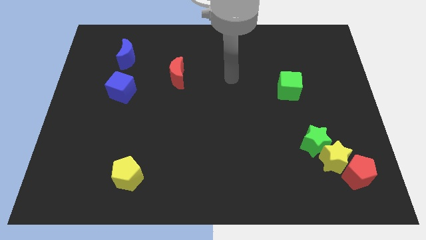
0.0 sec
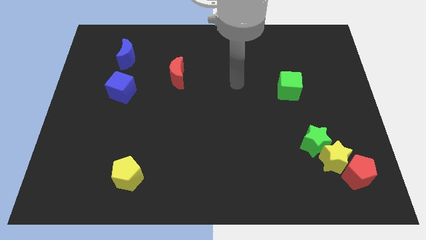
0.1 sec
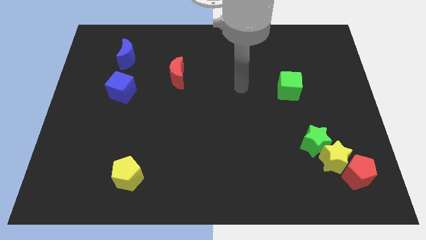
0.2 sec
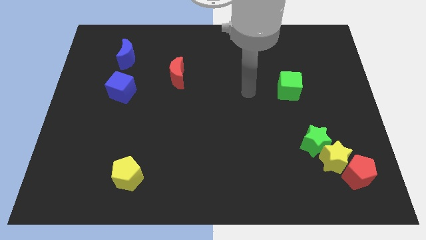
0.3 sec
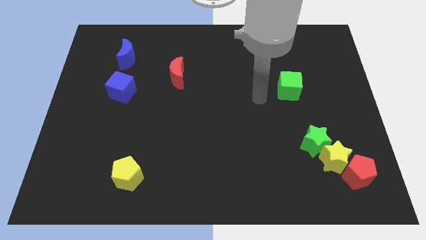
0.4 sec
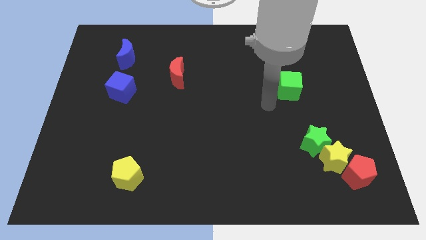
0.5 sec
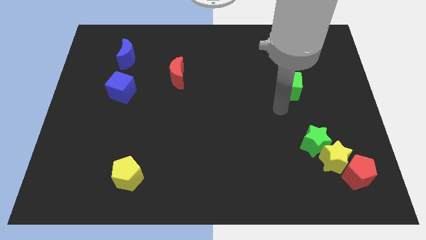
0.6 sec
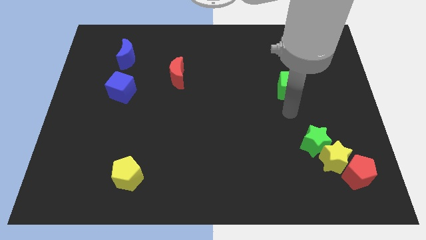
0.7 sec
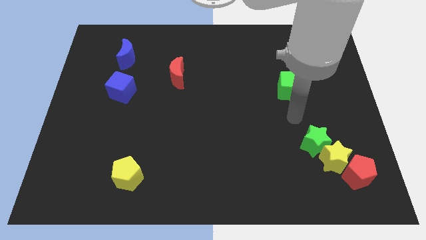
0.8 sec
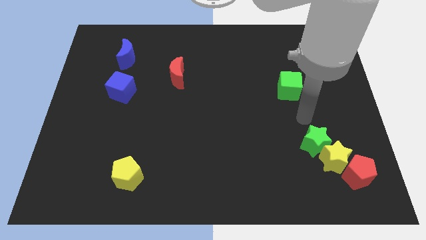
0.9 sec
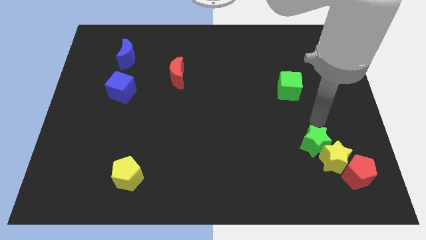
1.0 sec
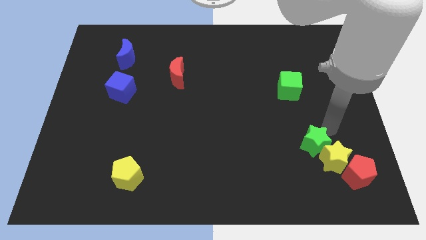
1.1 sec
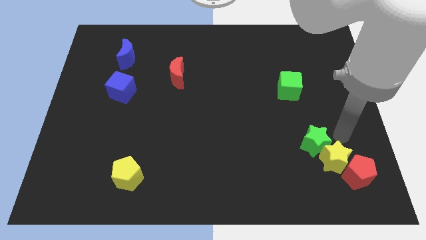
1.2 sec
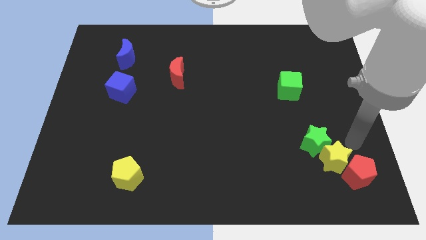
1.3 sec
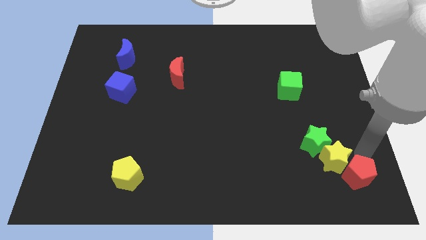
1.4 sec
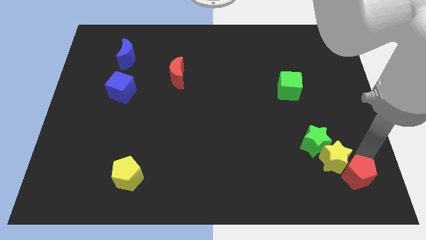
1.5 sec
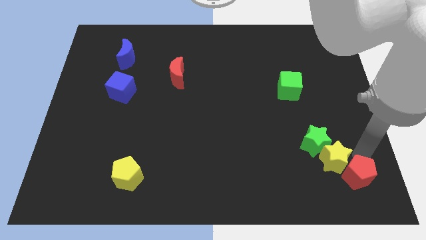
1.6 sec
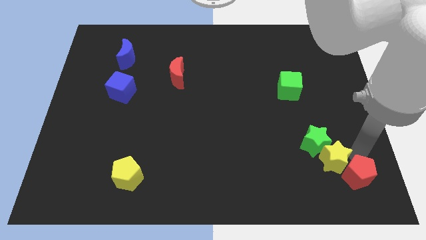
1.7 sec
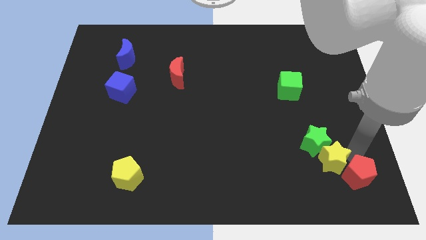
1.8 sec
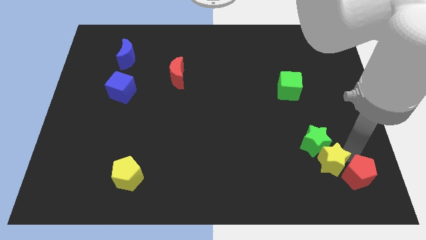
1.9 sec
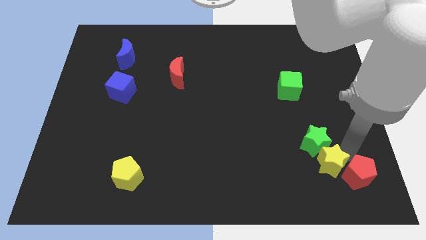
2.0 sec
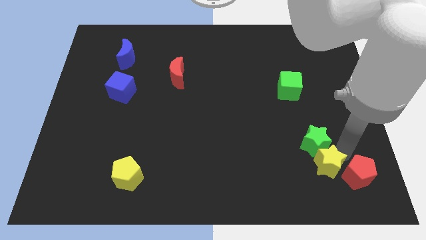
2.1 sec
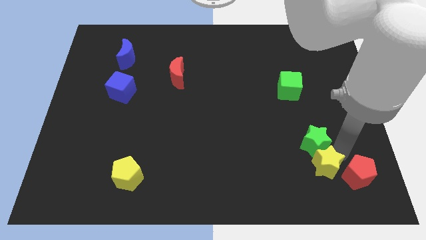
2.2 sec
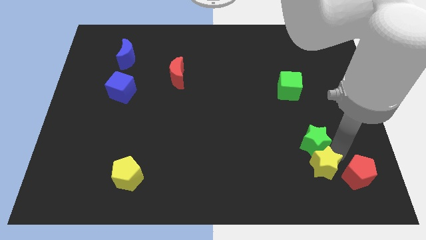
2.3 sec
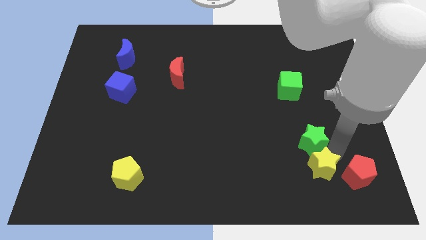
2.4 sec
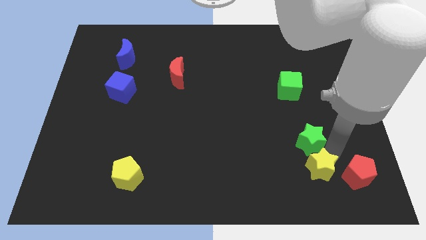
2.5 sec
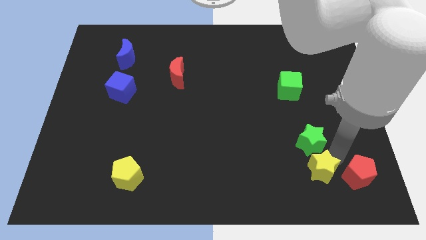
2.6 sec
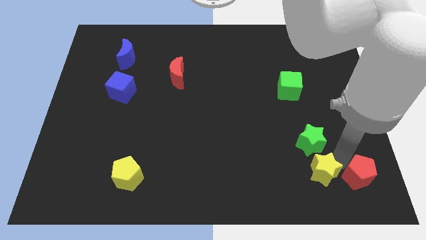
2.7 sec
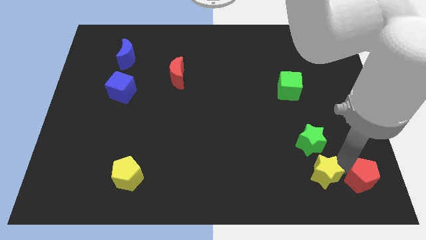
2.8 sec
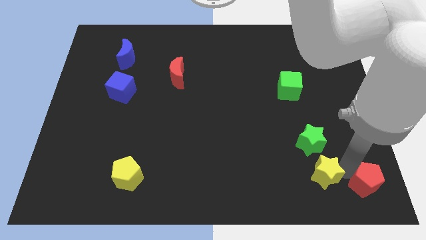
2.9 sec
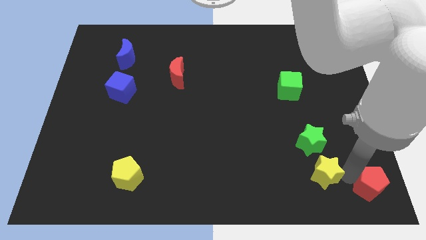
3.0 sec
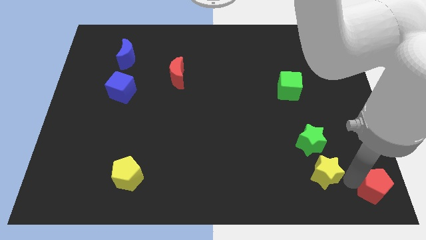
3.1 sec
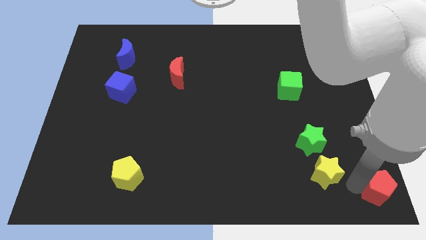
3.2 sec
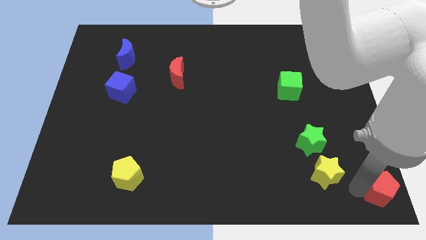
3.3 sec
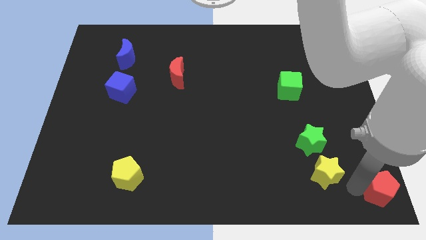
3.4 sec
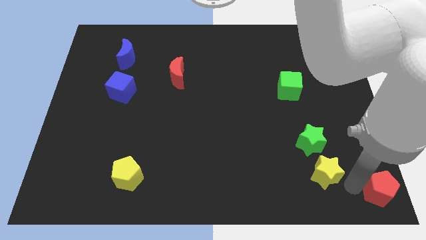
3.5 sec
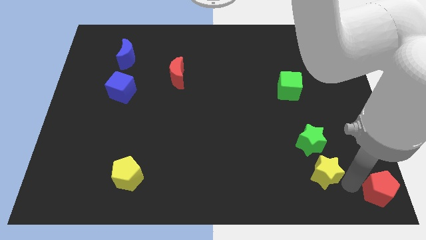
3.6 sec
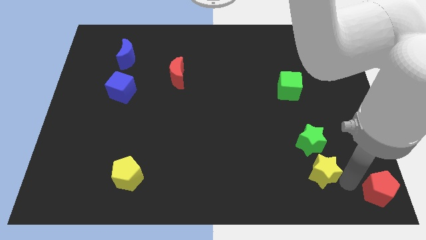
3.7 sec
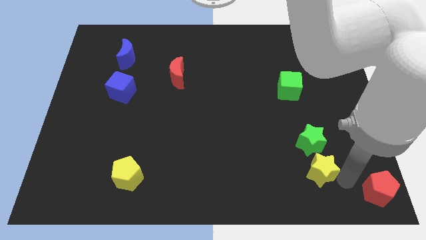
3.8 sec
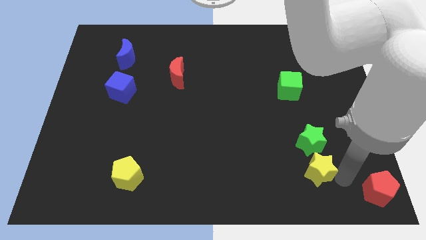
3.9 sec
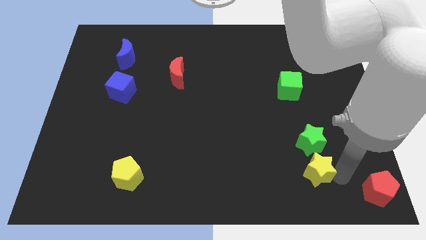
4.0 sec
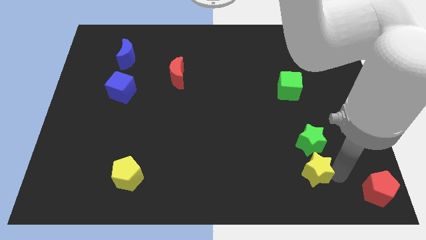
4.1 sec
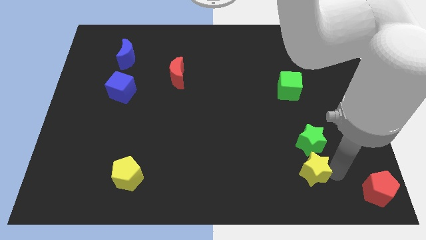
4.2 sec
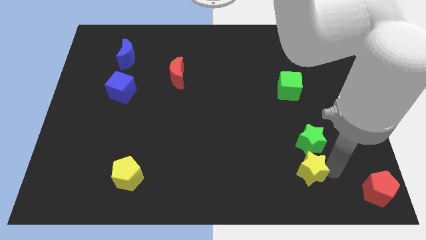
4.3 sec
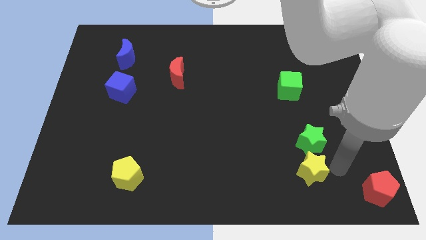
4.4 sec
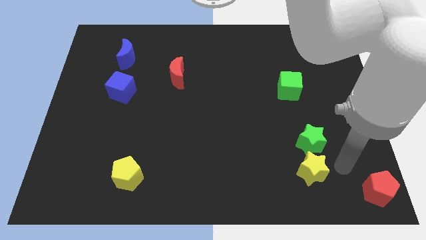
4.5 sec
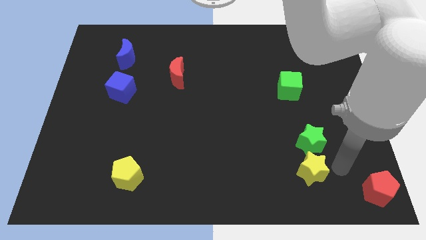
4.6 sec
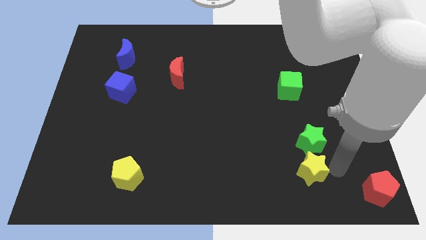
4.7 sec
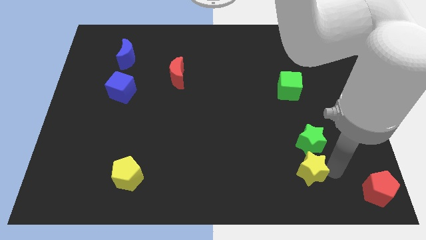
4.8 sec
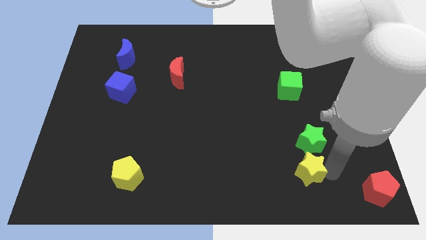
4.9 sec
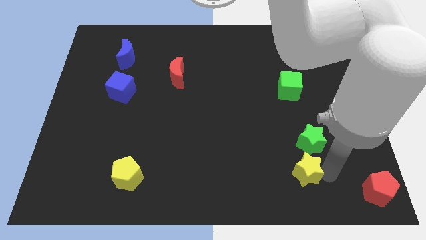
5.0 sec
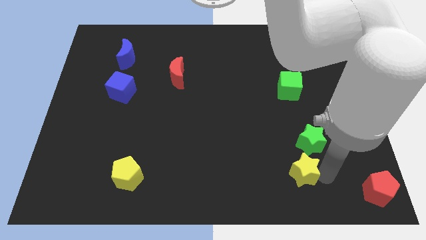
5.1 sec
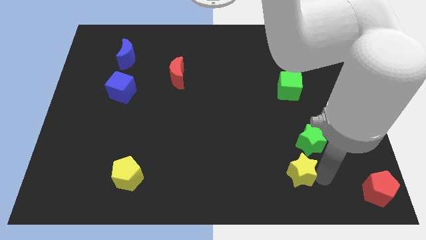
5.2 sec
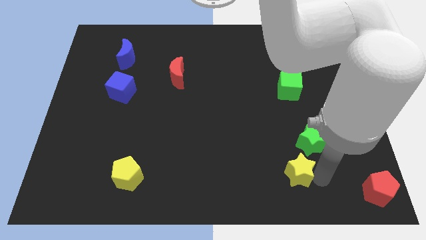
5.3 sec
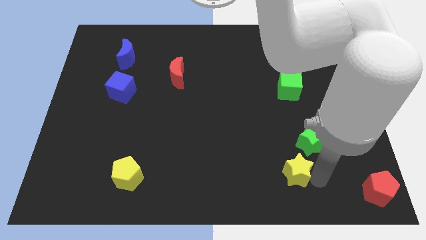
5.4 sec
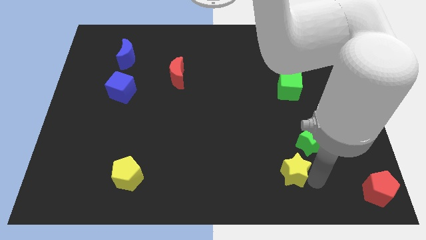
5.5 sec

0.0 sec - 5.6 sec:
separate the yellow star from the green star and red pentagon

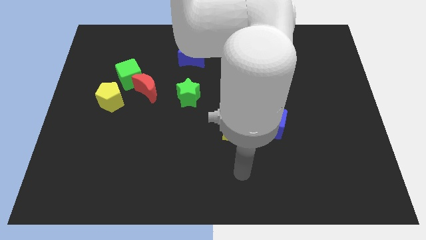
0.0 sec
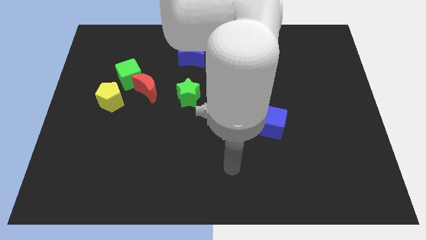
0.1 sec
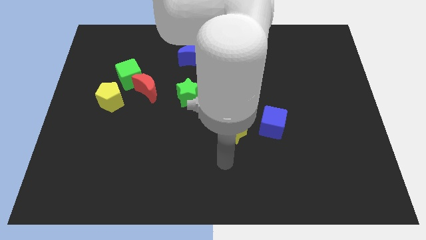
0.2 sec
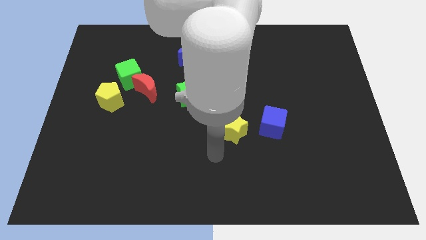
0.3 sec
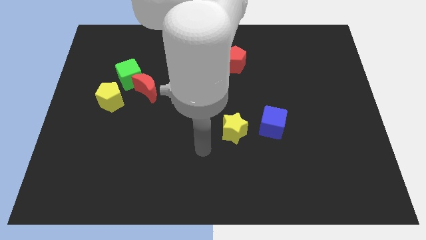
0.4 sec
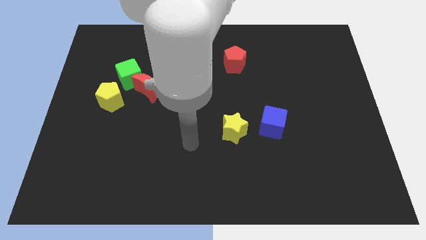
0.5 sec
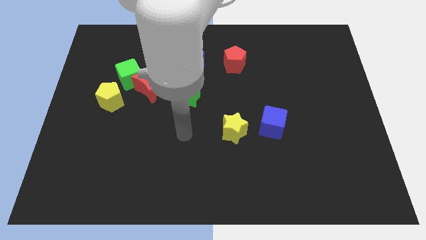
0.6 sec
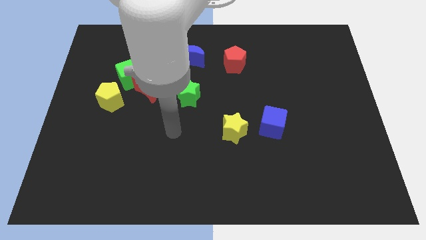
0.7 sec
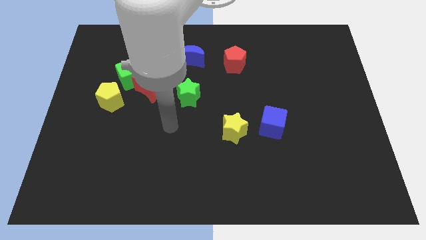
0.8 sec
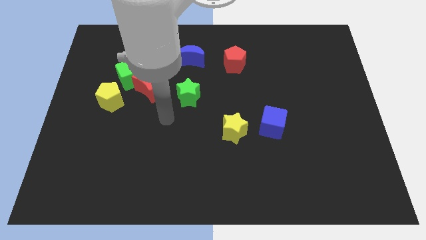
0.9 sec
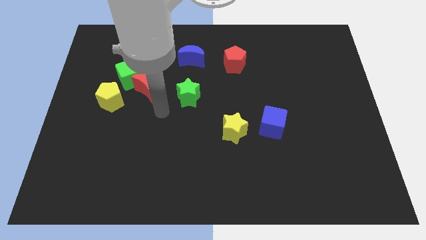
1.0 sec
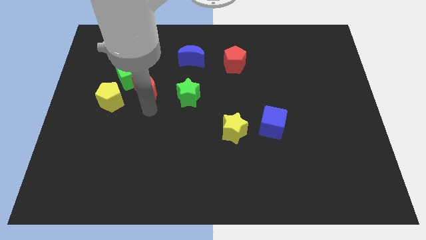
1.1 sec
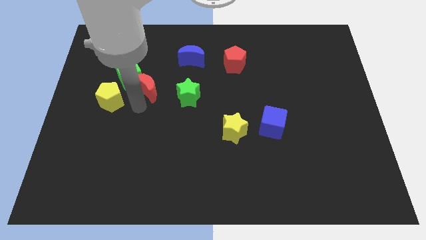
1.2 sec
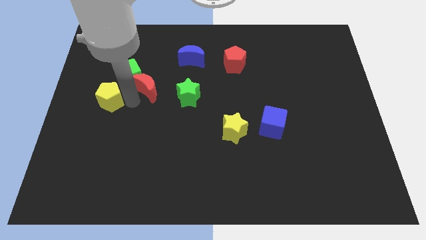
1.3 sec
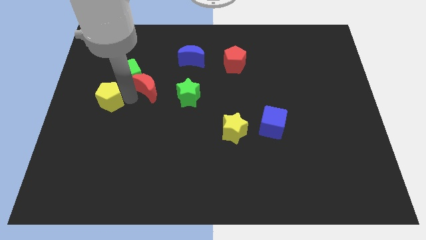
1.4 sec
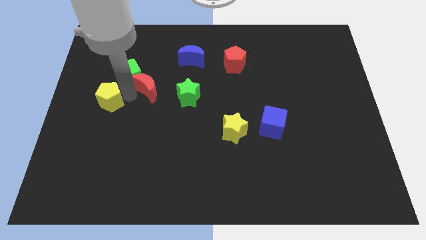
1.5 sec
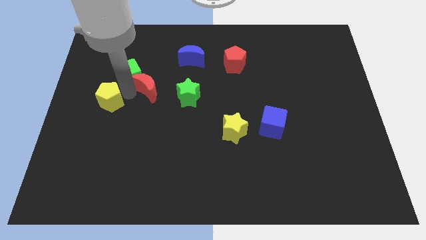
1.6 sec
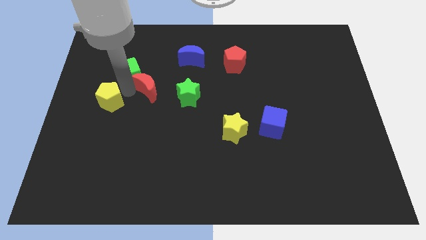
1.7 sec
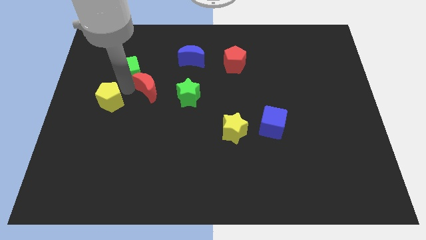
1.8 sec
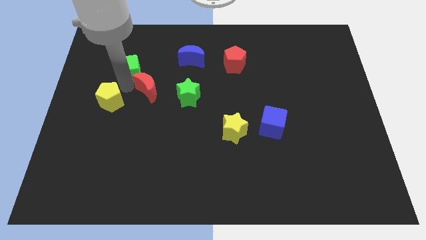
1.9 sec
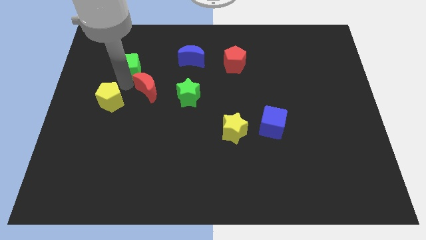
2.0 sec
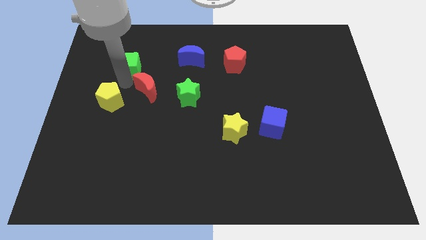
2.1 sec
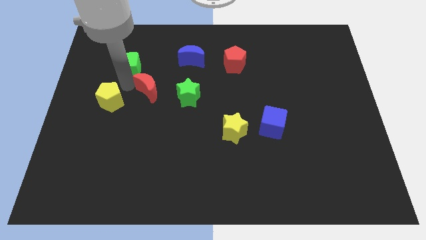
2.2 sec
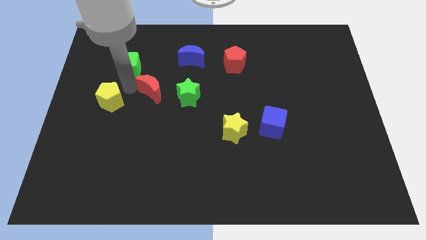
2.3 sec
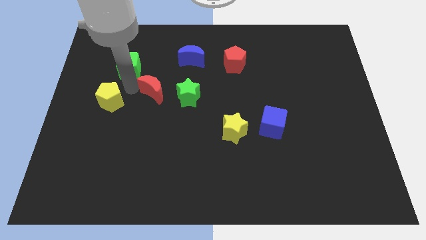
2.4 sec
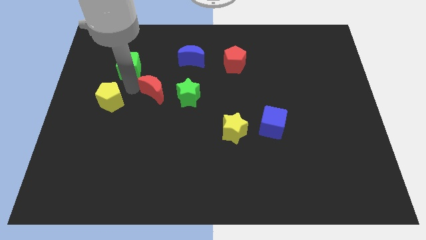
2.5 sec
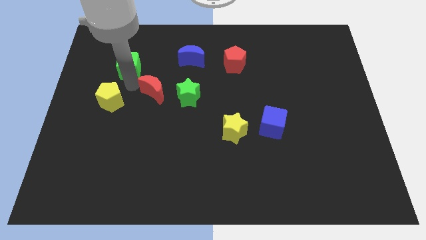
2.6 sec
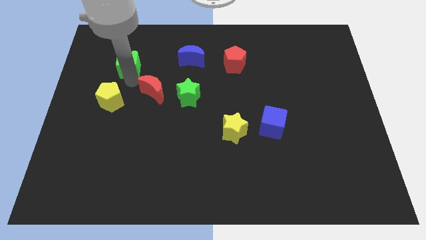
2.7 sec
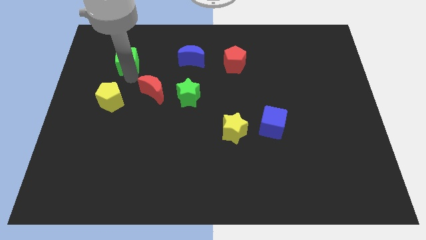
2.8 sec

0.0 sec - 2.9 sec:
separate the green cube from the red moon and yellow pentagon

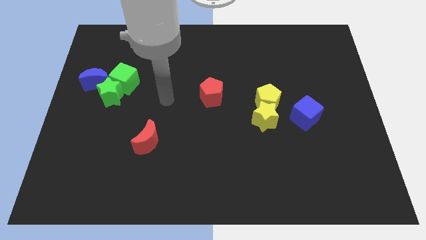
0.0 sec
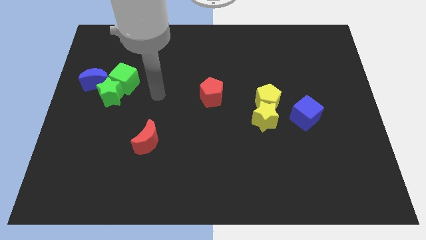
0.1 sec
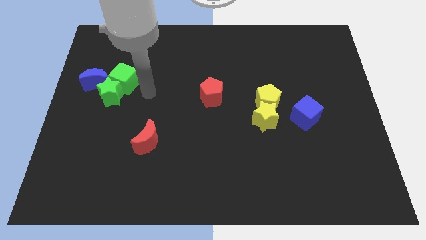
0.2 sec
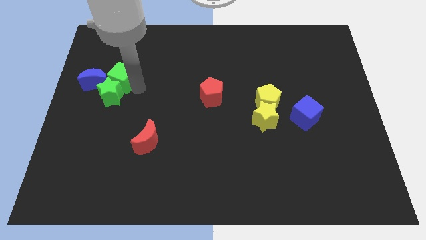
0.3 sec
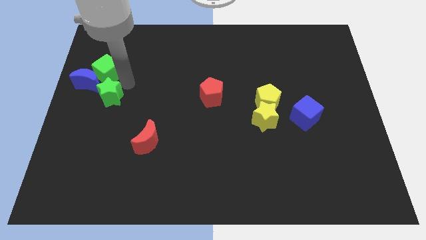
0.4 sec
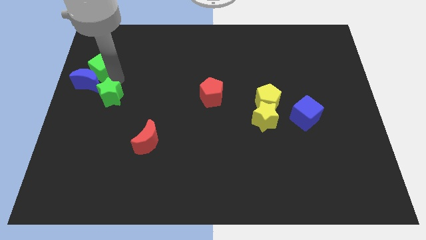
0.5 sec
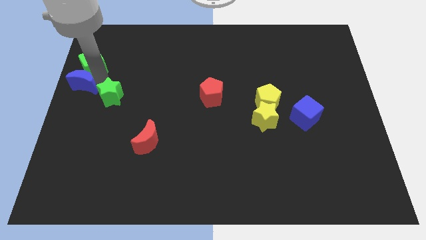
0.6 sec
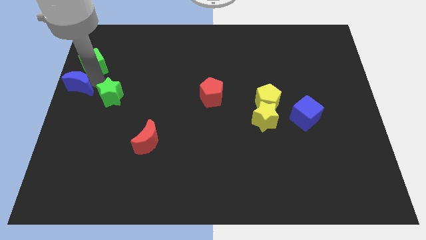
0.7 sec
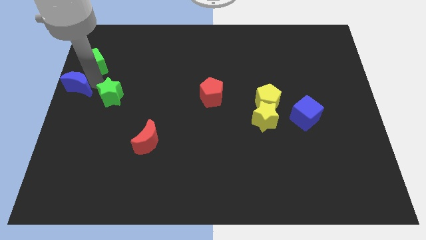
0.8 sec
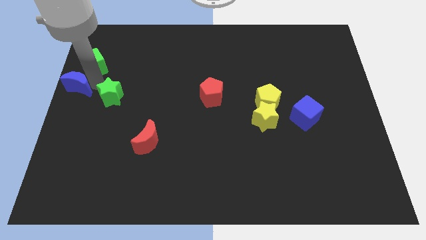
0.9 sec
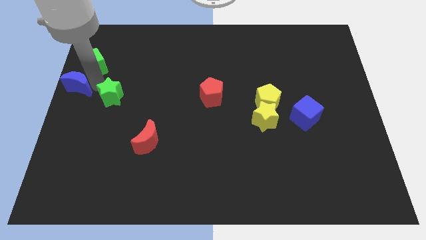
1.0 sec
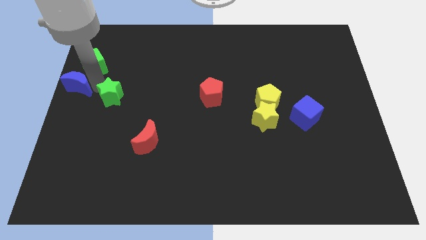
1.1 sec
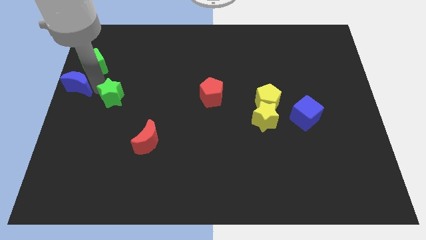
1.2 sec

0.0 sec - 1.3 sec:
pull the green star apart from the green cube and blue moon
